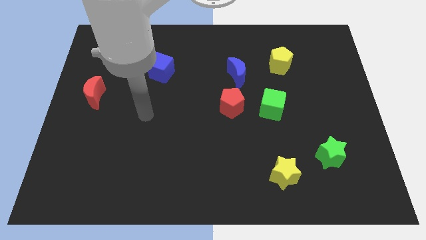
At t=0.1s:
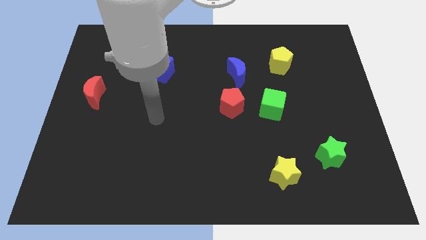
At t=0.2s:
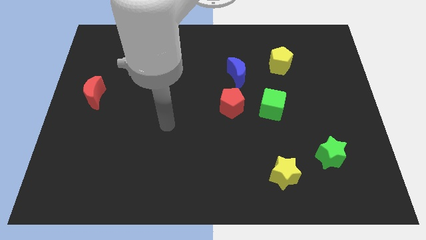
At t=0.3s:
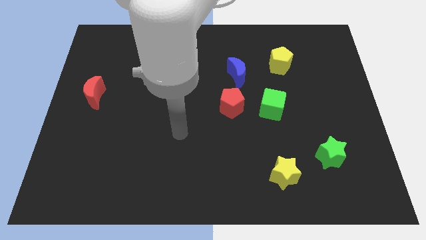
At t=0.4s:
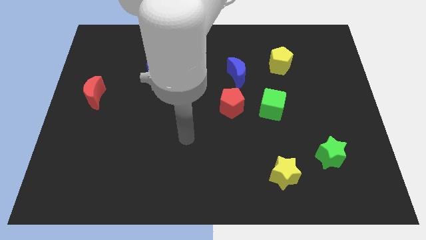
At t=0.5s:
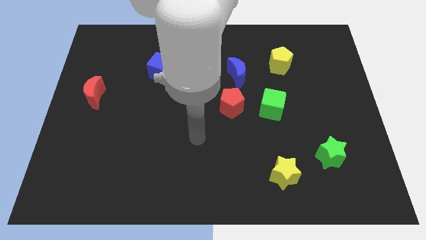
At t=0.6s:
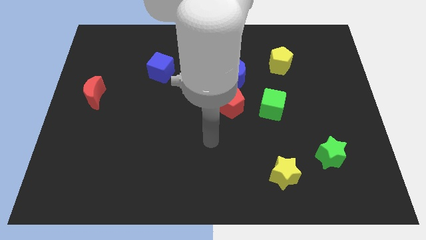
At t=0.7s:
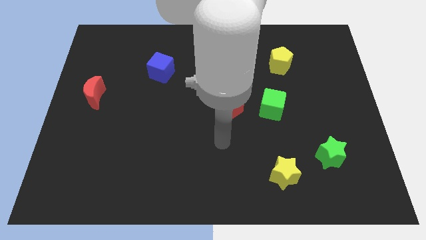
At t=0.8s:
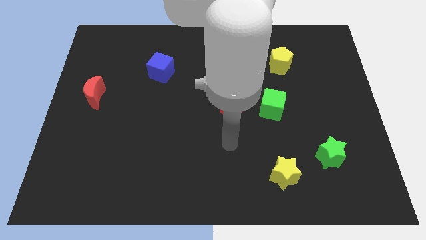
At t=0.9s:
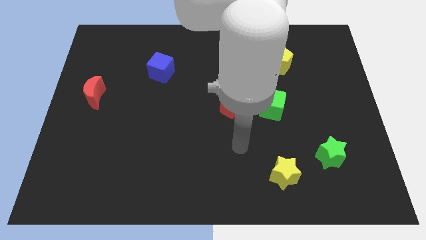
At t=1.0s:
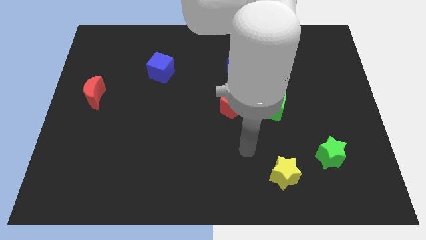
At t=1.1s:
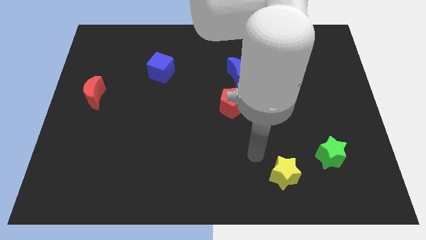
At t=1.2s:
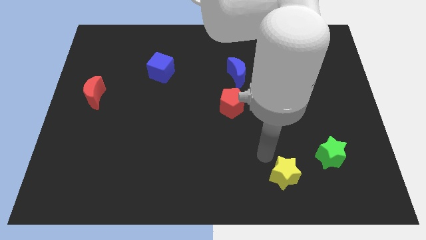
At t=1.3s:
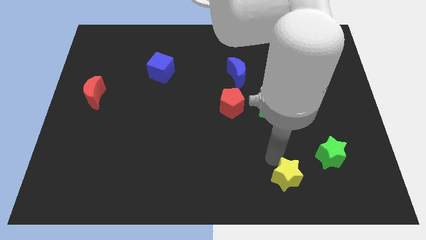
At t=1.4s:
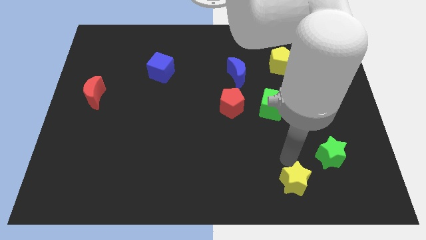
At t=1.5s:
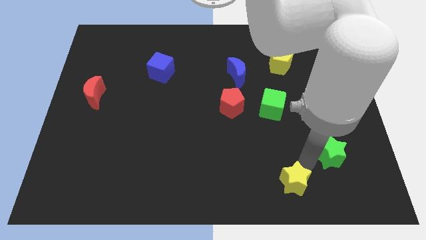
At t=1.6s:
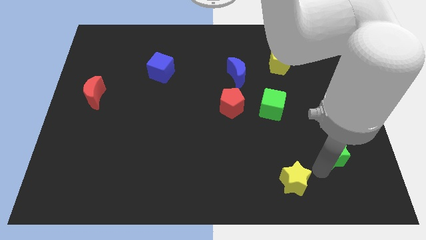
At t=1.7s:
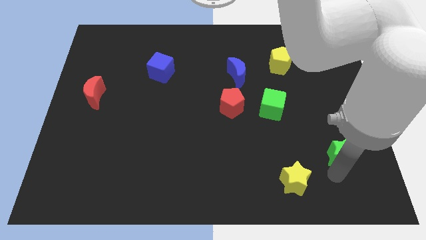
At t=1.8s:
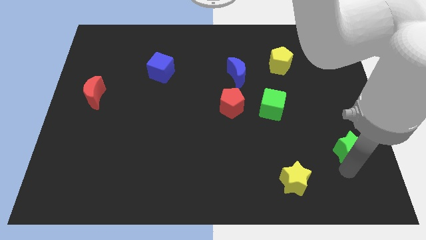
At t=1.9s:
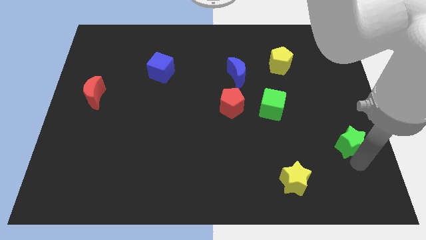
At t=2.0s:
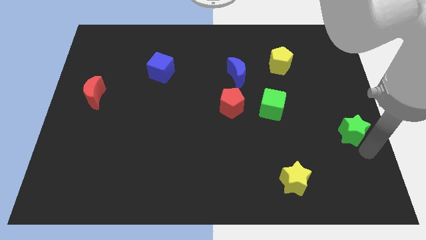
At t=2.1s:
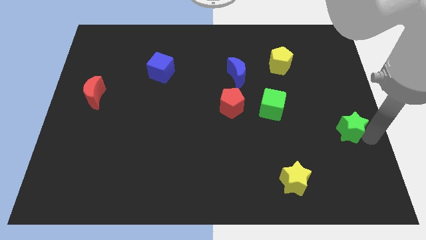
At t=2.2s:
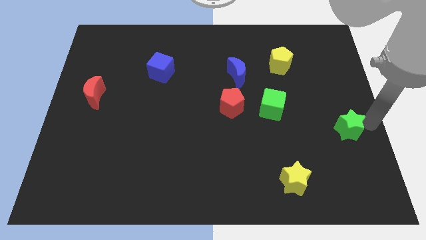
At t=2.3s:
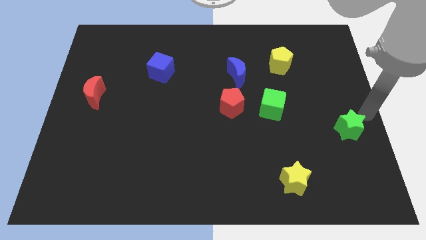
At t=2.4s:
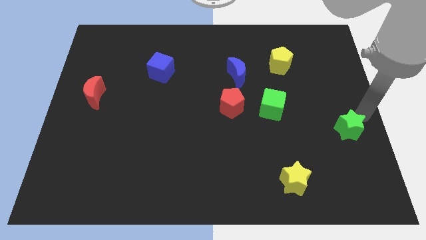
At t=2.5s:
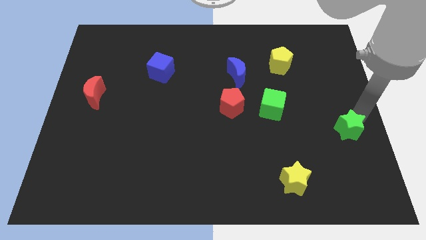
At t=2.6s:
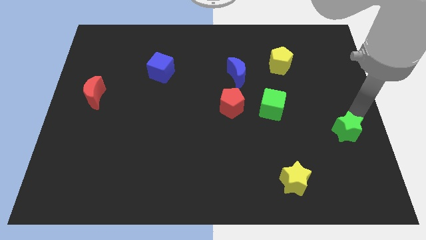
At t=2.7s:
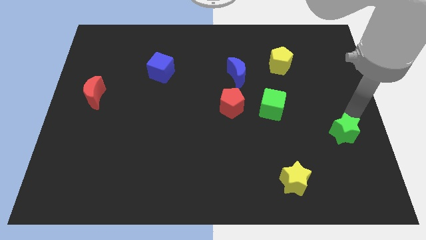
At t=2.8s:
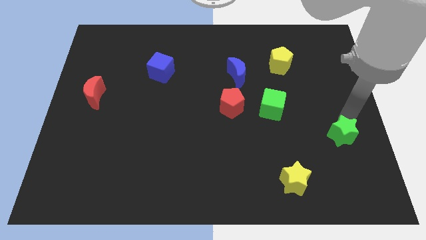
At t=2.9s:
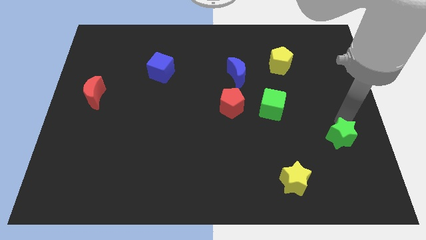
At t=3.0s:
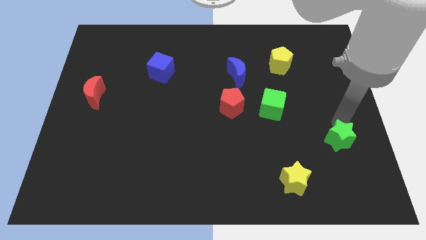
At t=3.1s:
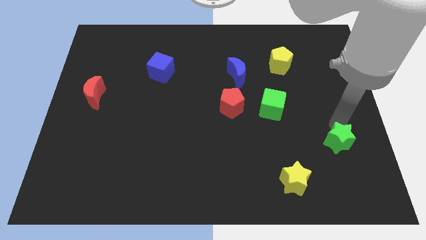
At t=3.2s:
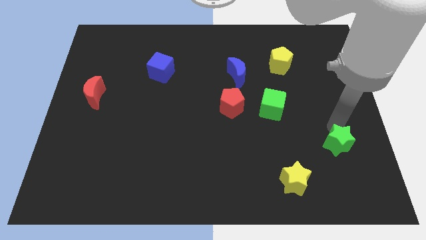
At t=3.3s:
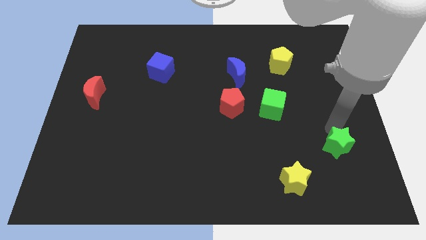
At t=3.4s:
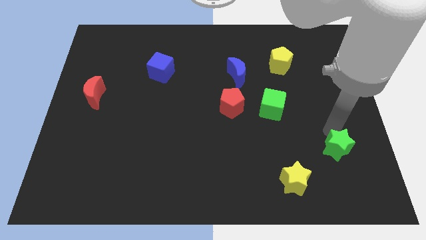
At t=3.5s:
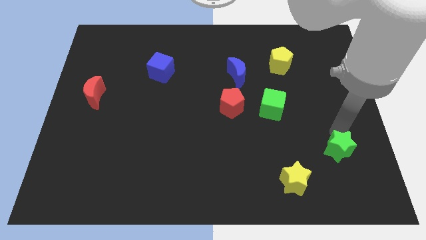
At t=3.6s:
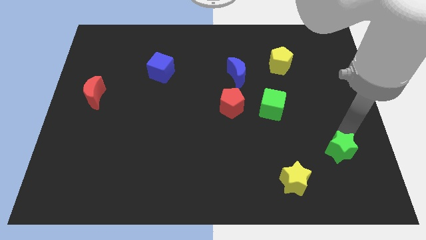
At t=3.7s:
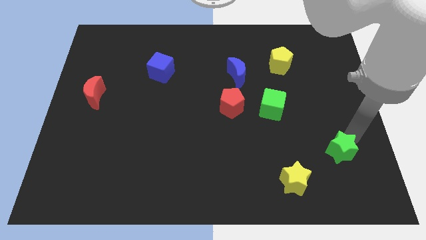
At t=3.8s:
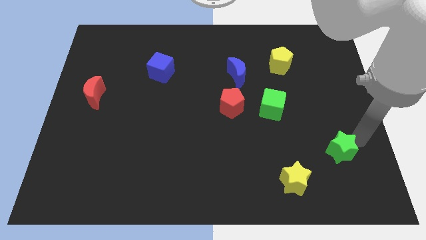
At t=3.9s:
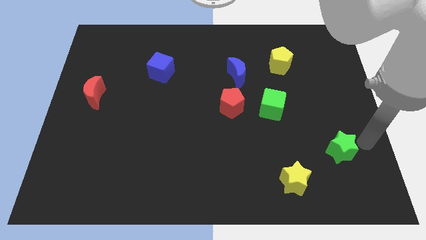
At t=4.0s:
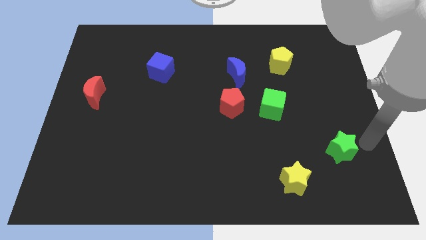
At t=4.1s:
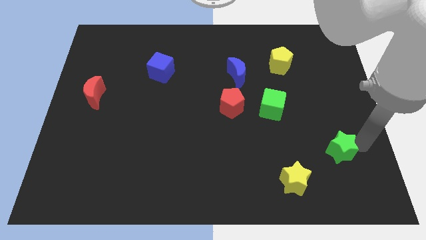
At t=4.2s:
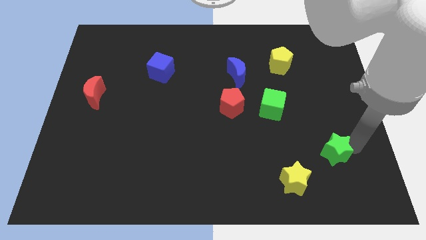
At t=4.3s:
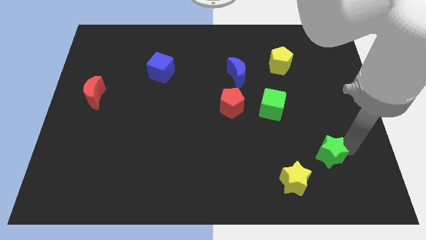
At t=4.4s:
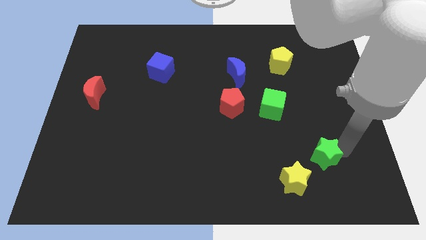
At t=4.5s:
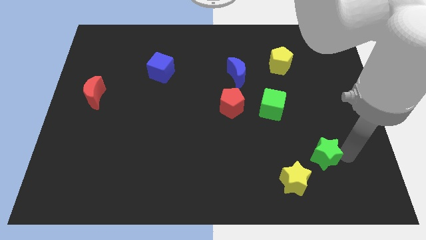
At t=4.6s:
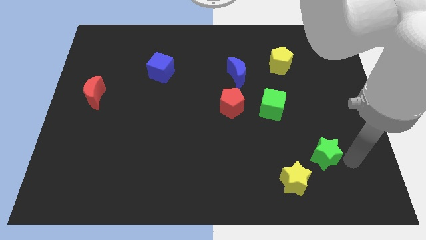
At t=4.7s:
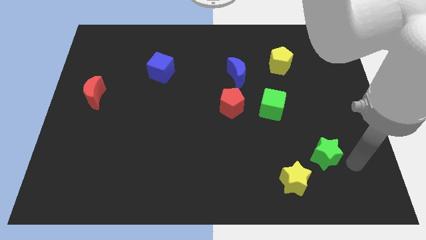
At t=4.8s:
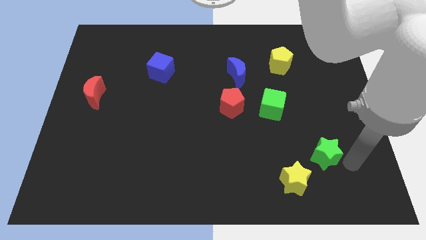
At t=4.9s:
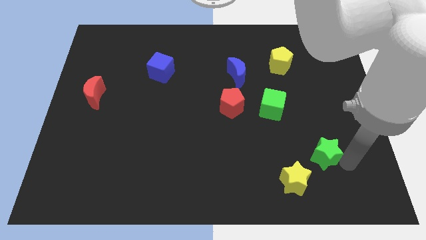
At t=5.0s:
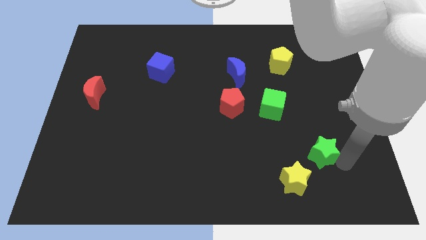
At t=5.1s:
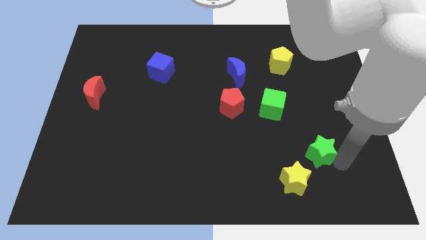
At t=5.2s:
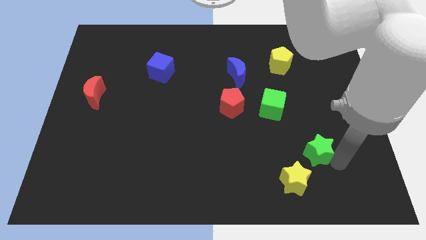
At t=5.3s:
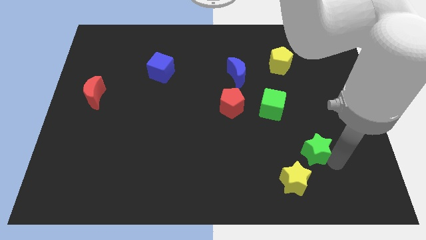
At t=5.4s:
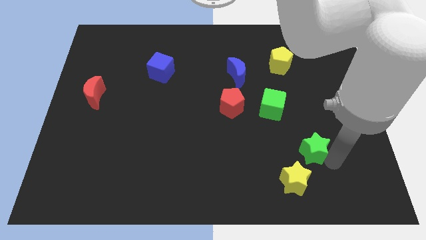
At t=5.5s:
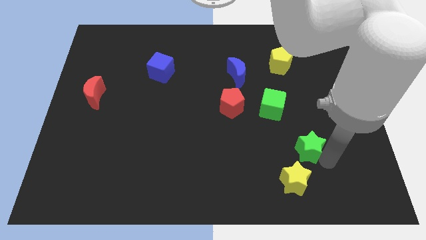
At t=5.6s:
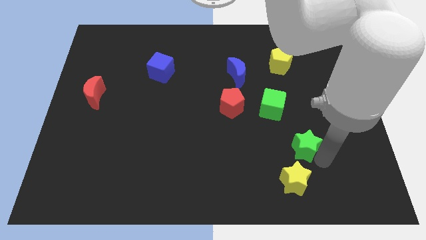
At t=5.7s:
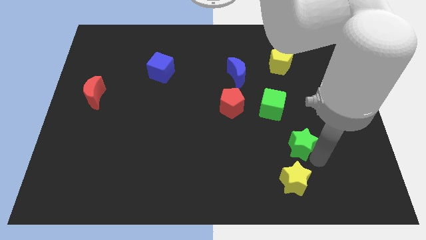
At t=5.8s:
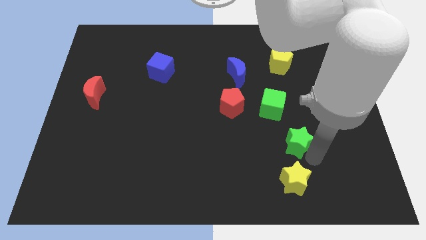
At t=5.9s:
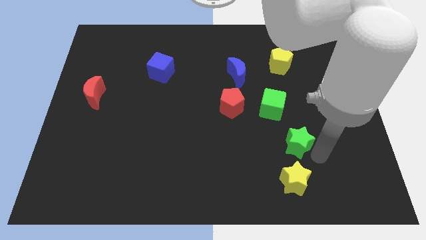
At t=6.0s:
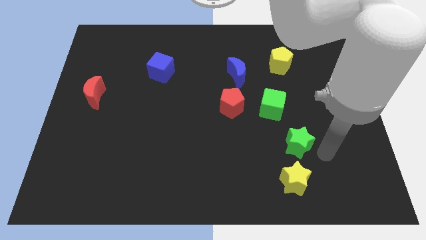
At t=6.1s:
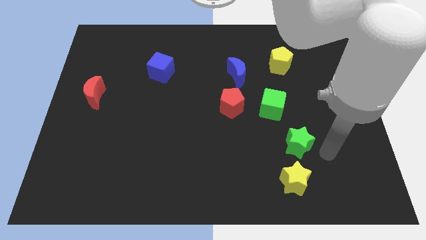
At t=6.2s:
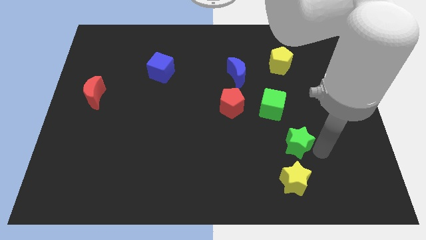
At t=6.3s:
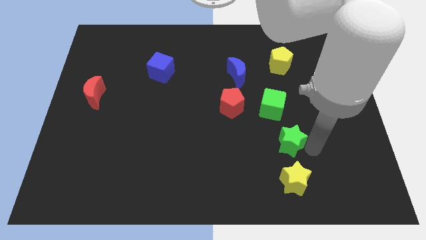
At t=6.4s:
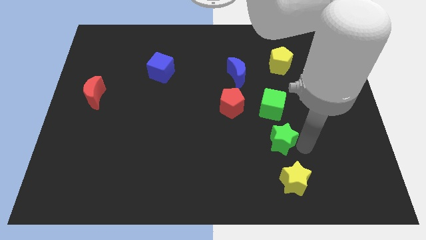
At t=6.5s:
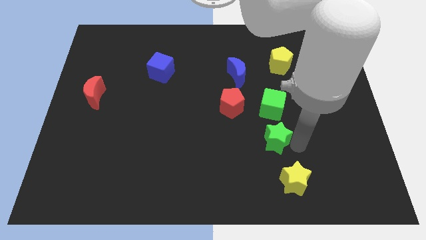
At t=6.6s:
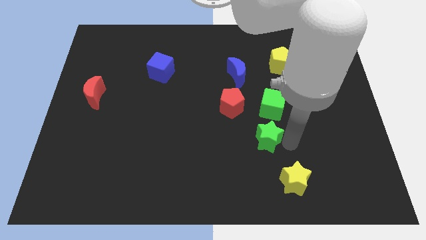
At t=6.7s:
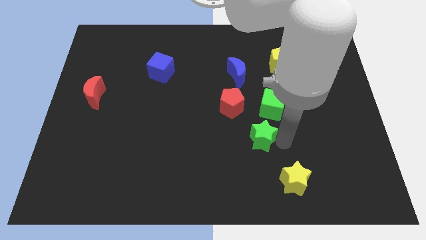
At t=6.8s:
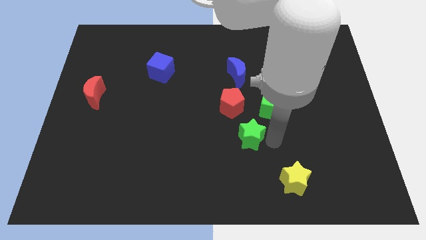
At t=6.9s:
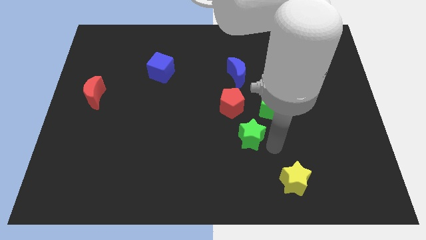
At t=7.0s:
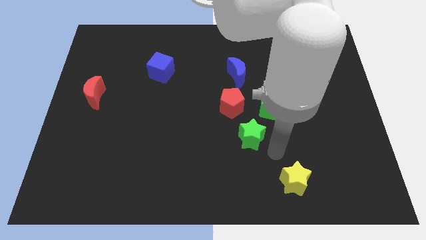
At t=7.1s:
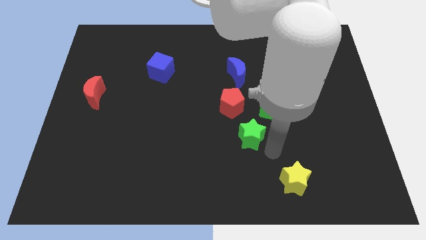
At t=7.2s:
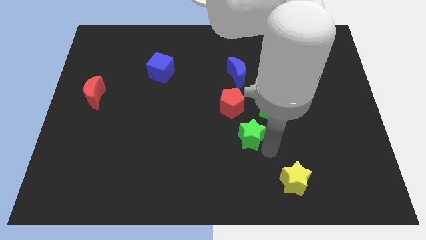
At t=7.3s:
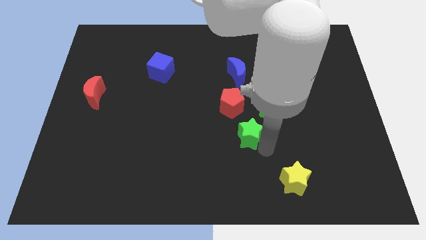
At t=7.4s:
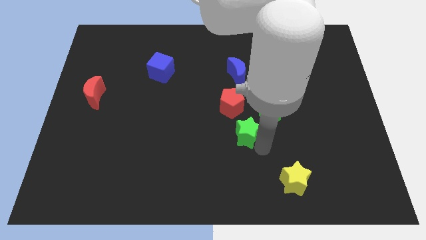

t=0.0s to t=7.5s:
move the green star to the center of the board
